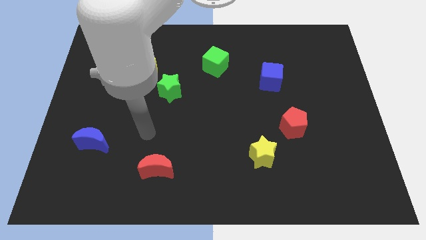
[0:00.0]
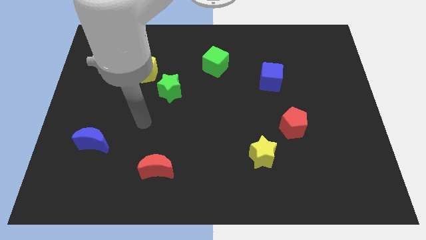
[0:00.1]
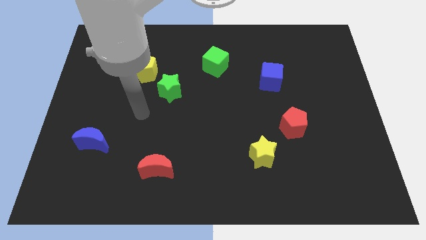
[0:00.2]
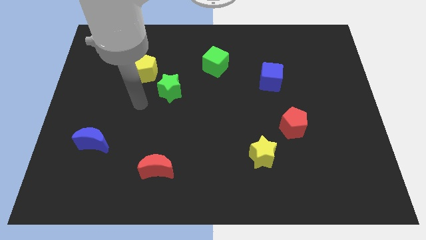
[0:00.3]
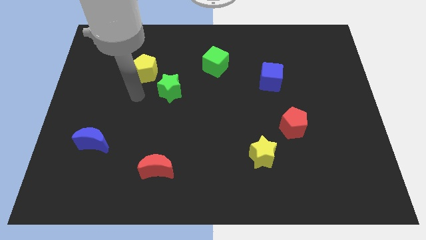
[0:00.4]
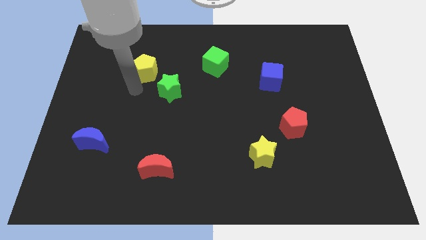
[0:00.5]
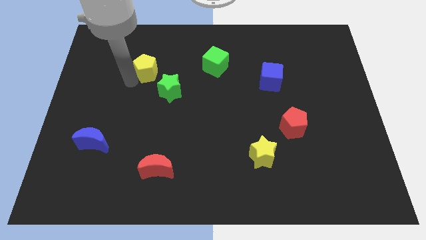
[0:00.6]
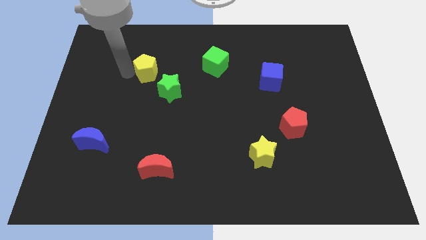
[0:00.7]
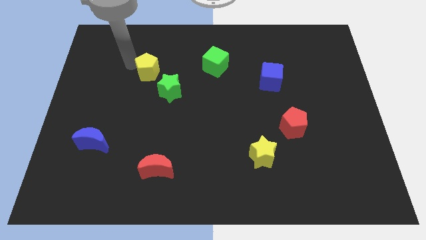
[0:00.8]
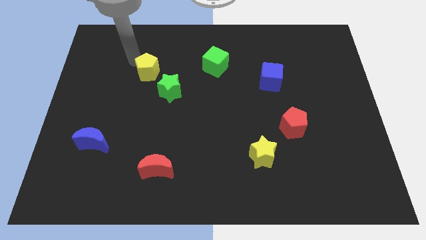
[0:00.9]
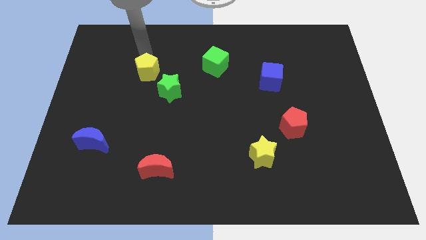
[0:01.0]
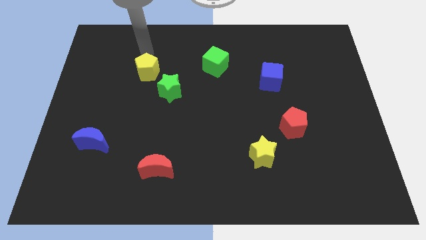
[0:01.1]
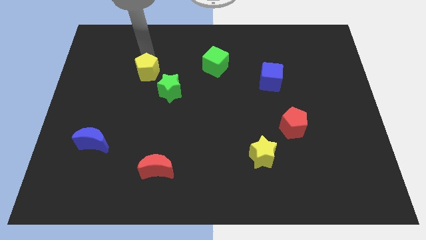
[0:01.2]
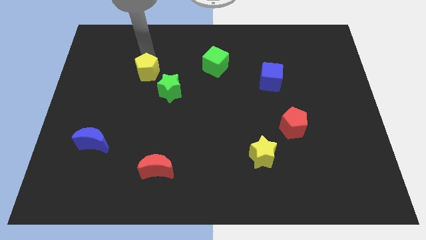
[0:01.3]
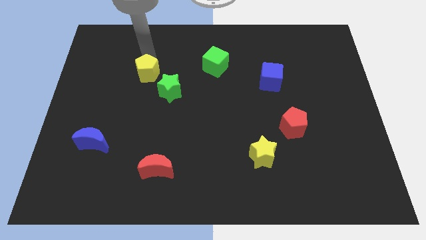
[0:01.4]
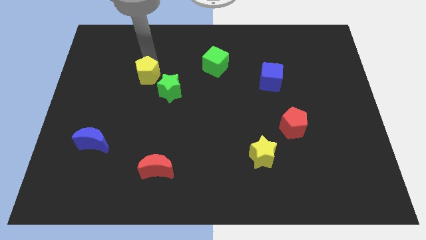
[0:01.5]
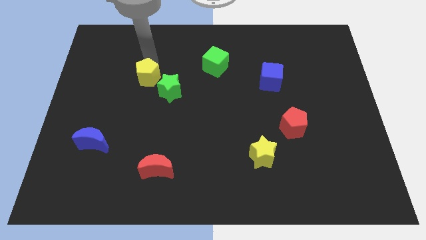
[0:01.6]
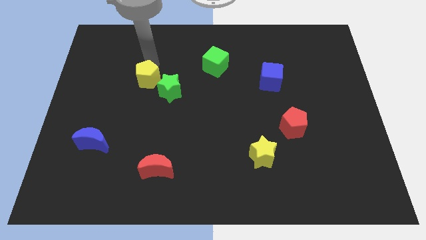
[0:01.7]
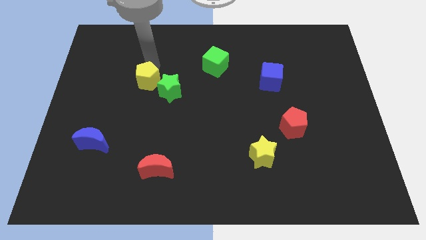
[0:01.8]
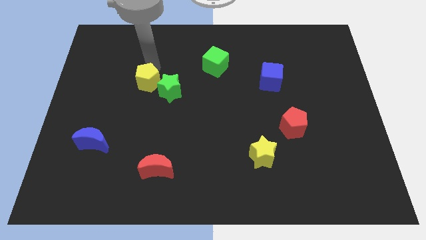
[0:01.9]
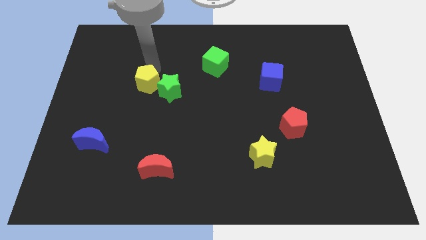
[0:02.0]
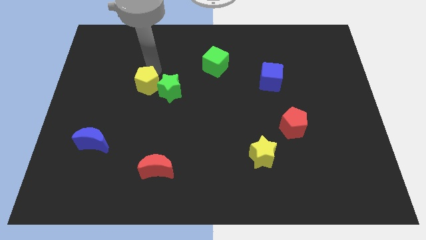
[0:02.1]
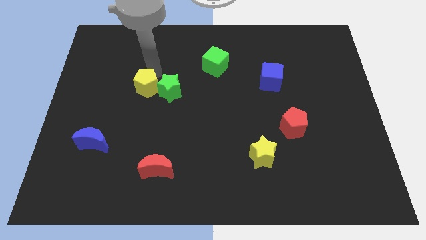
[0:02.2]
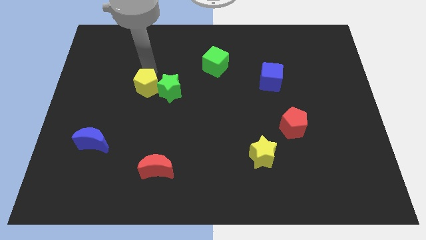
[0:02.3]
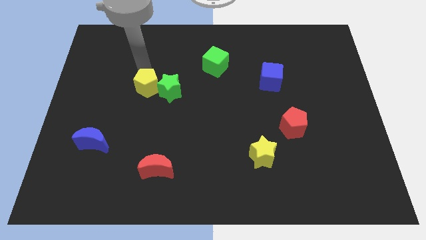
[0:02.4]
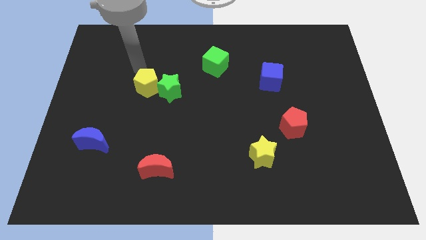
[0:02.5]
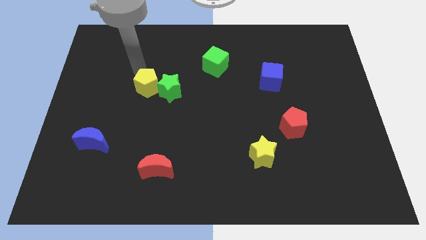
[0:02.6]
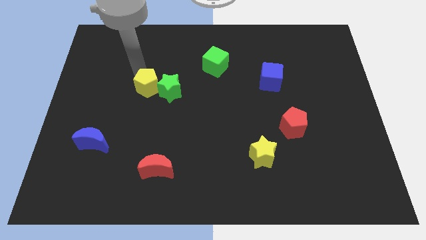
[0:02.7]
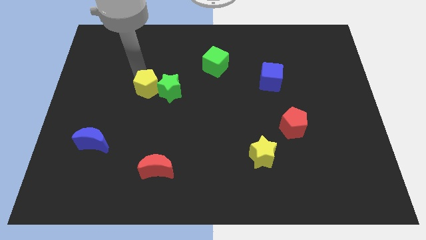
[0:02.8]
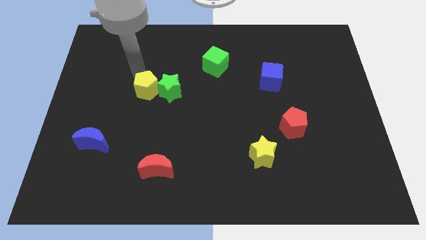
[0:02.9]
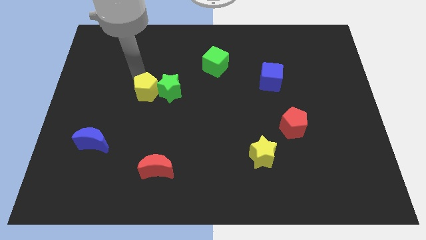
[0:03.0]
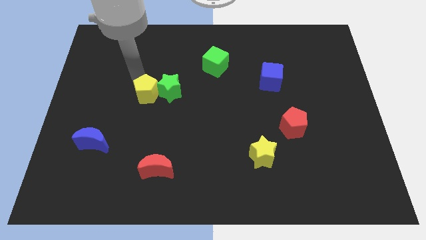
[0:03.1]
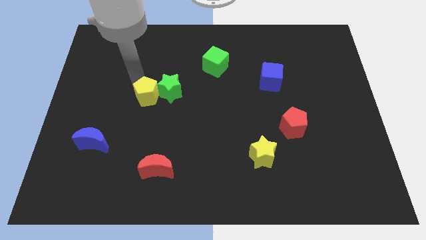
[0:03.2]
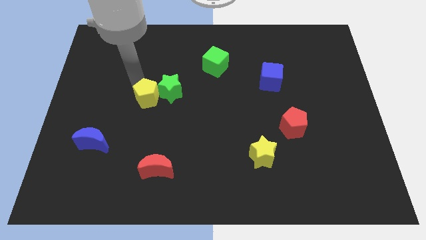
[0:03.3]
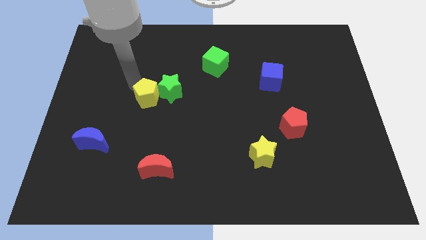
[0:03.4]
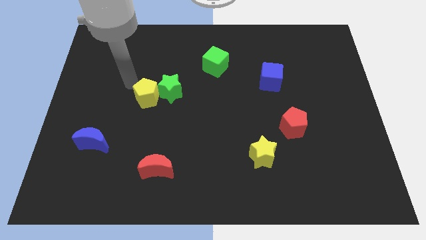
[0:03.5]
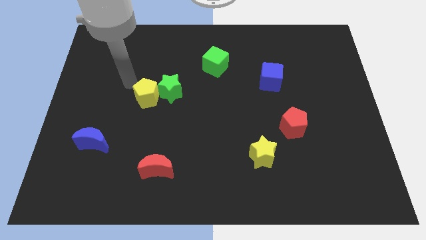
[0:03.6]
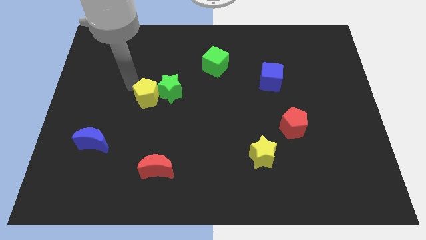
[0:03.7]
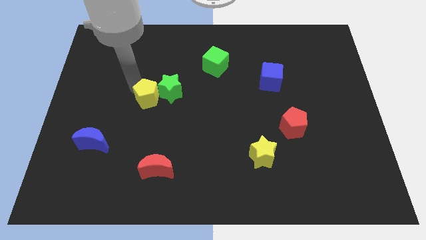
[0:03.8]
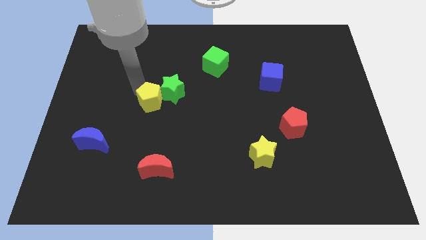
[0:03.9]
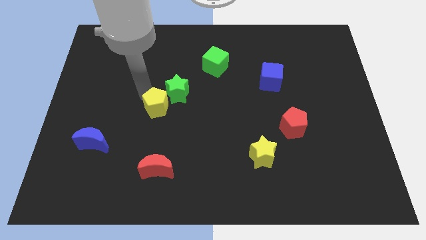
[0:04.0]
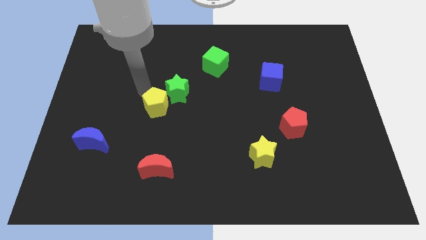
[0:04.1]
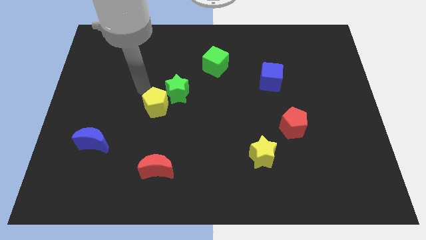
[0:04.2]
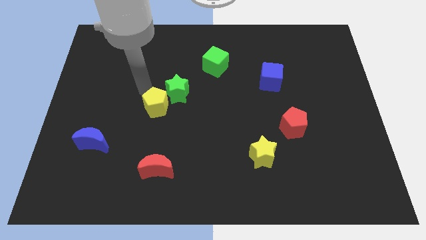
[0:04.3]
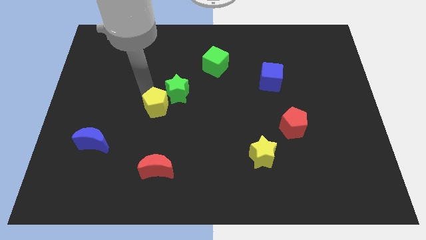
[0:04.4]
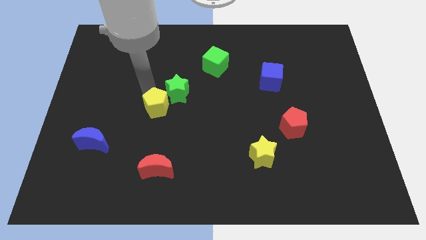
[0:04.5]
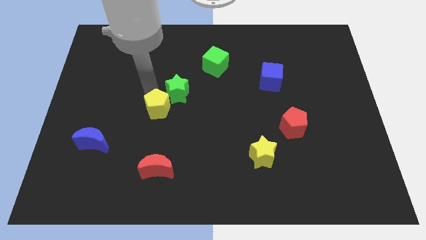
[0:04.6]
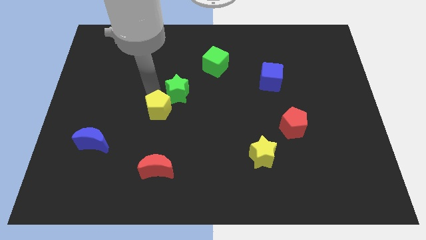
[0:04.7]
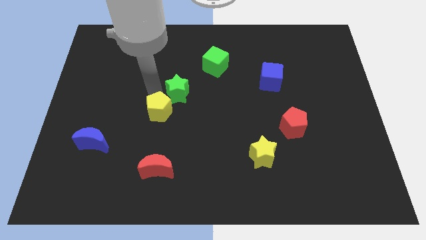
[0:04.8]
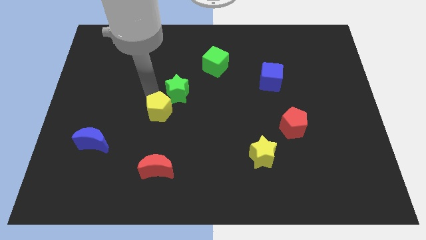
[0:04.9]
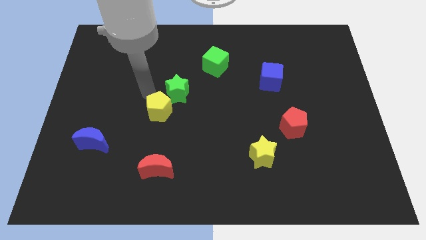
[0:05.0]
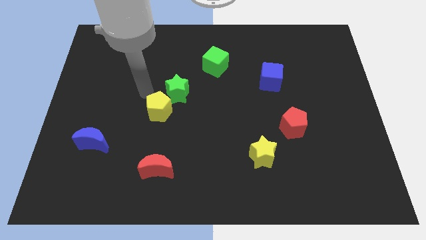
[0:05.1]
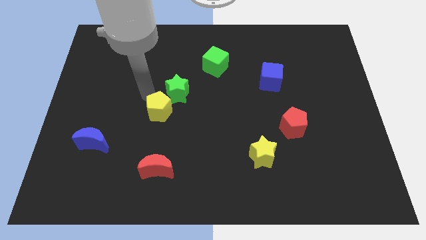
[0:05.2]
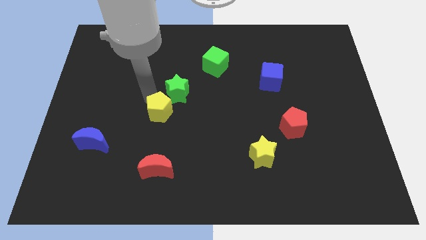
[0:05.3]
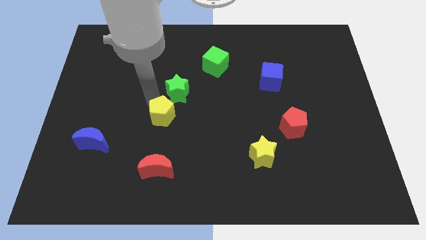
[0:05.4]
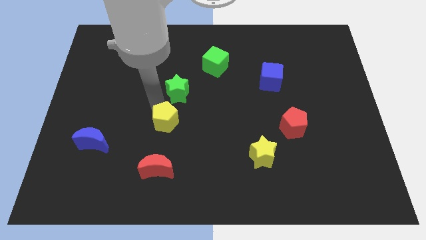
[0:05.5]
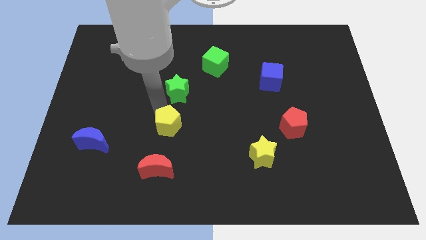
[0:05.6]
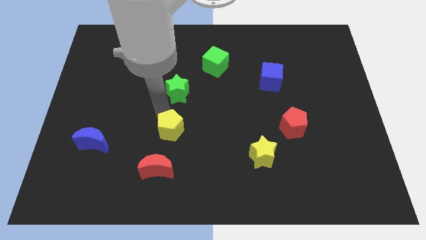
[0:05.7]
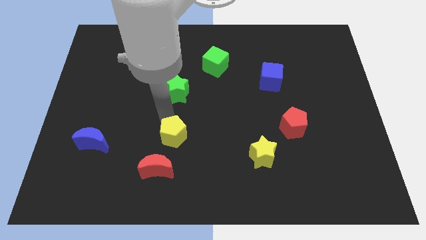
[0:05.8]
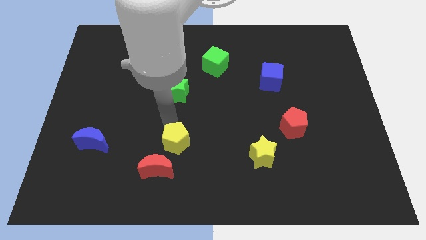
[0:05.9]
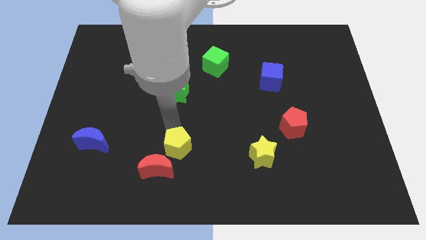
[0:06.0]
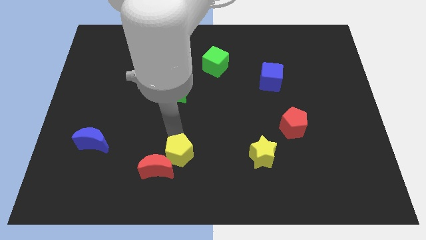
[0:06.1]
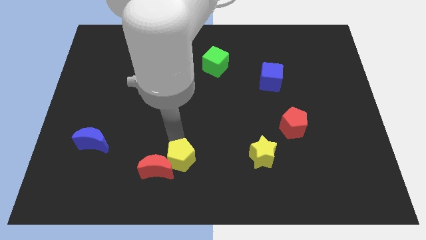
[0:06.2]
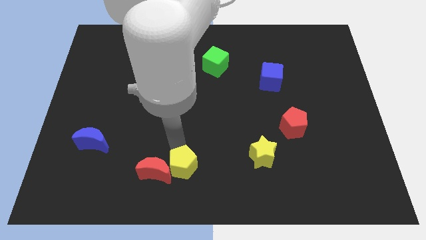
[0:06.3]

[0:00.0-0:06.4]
move the yellow pentagon to the bottom
